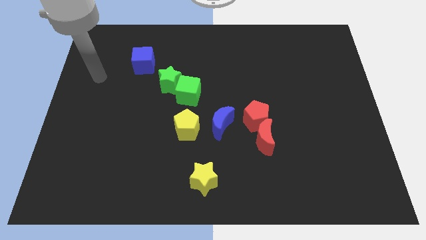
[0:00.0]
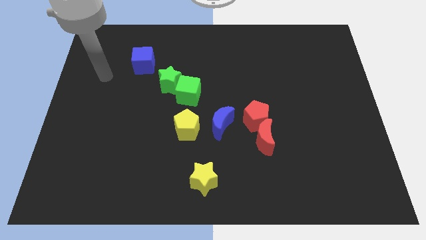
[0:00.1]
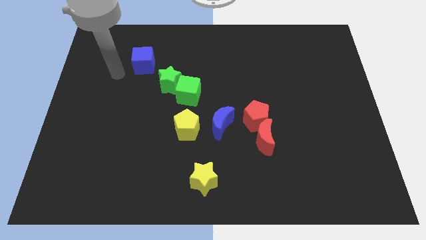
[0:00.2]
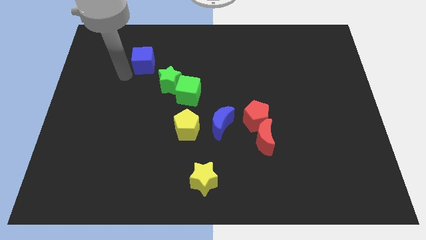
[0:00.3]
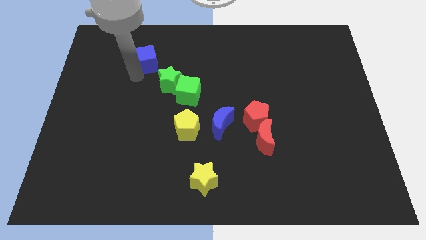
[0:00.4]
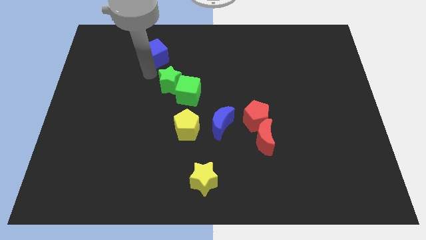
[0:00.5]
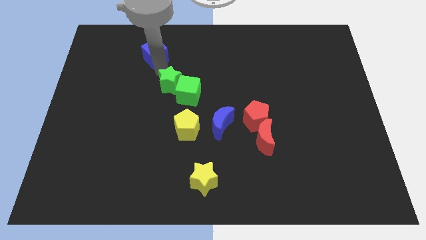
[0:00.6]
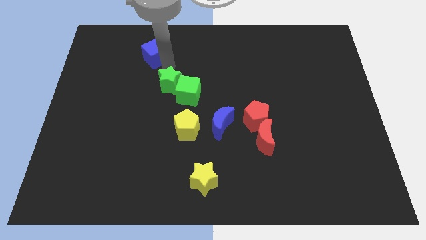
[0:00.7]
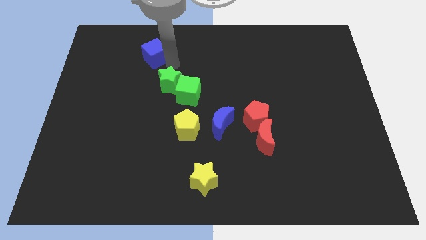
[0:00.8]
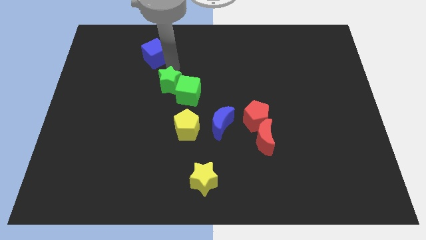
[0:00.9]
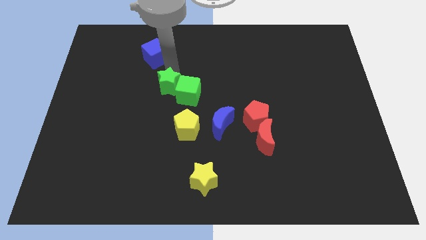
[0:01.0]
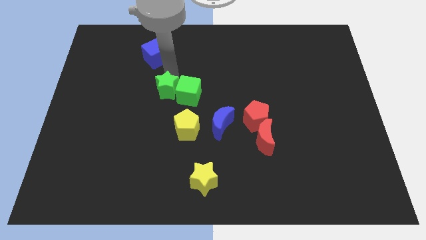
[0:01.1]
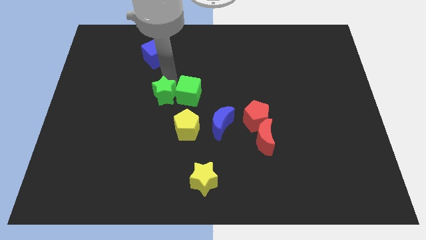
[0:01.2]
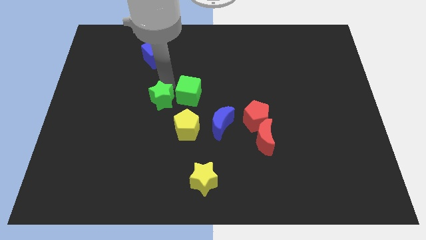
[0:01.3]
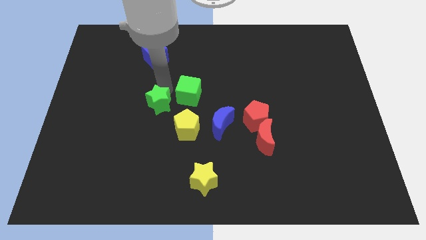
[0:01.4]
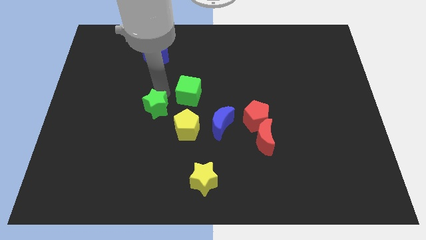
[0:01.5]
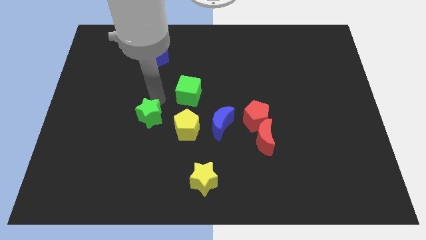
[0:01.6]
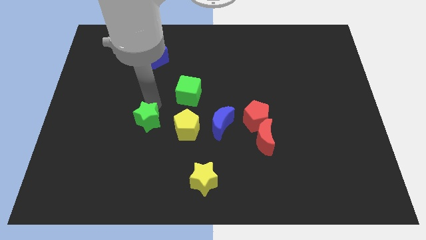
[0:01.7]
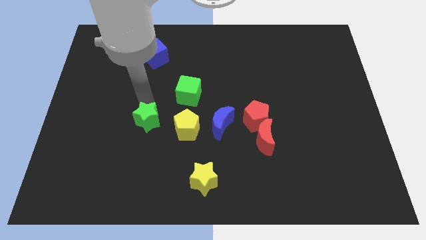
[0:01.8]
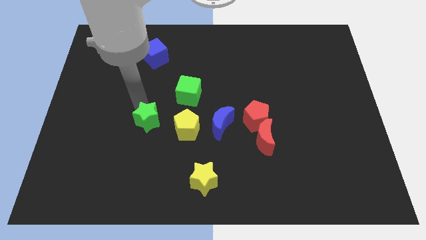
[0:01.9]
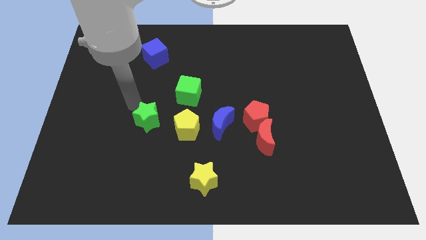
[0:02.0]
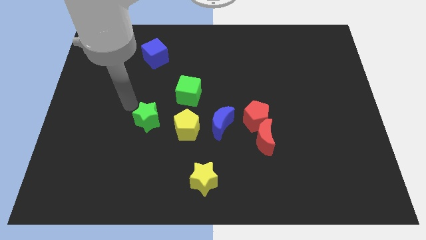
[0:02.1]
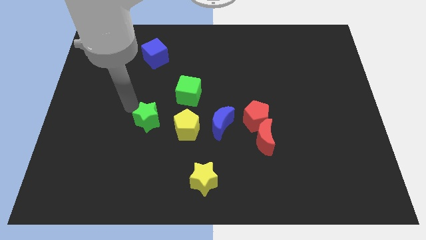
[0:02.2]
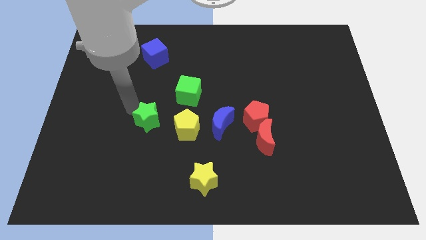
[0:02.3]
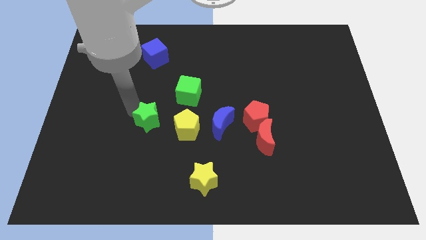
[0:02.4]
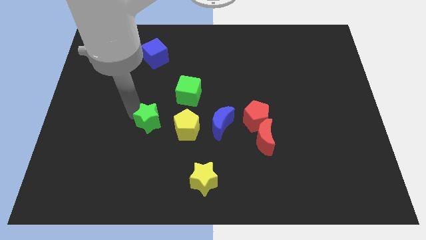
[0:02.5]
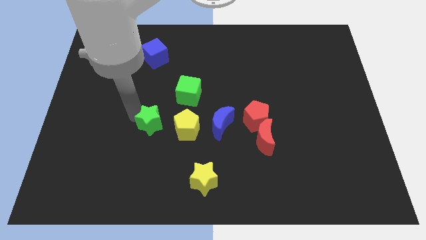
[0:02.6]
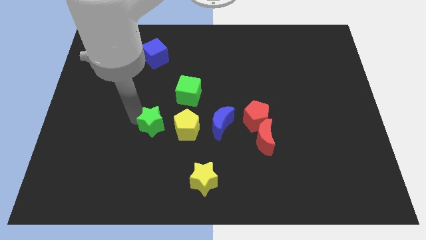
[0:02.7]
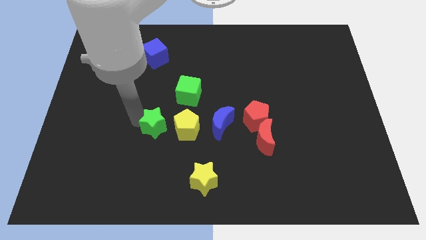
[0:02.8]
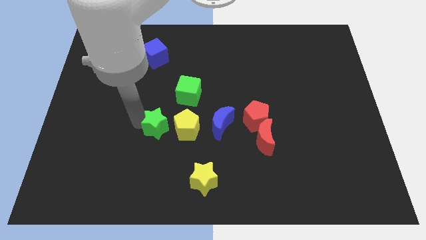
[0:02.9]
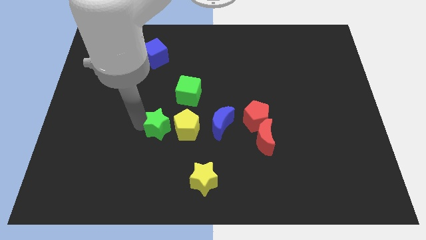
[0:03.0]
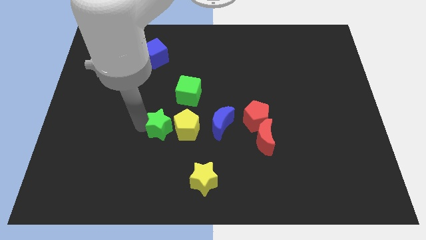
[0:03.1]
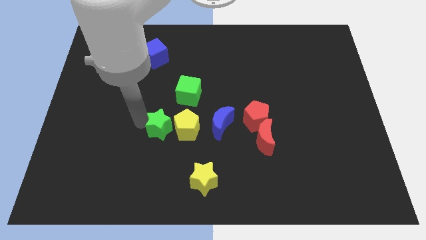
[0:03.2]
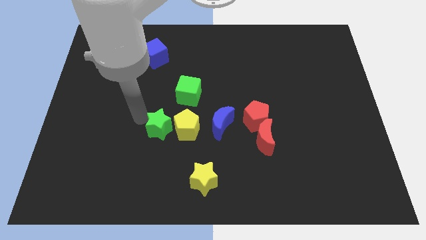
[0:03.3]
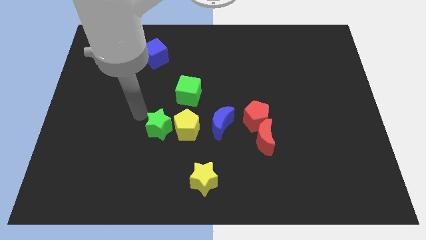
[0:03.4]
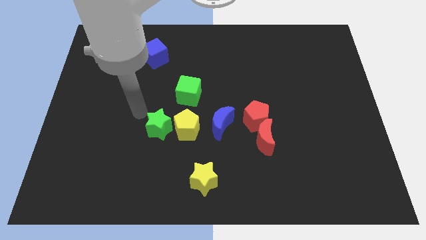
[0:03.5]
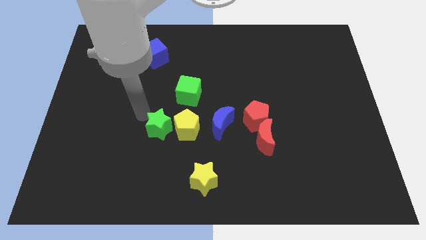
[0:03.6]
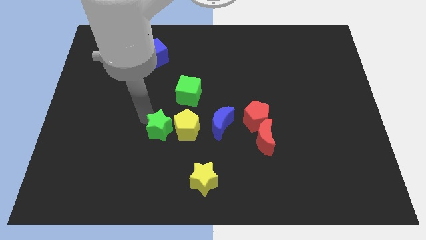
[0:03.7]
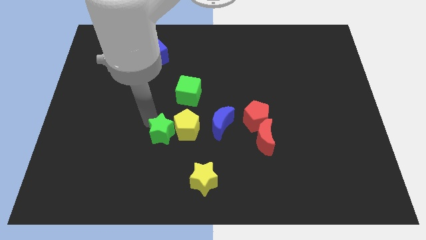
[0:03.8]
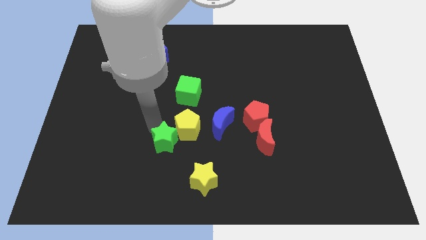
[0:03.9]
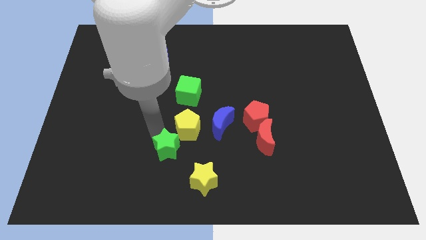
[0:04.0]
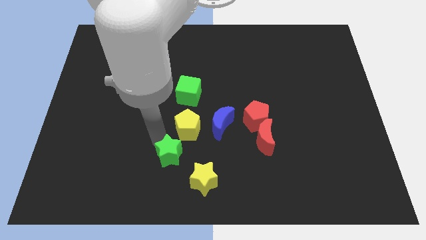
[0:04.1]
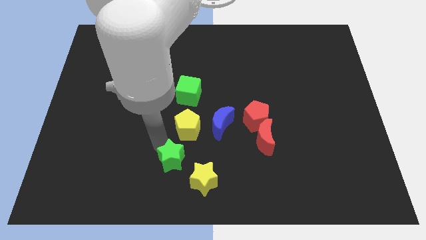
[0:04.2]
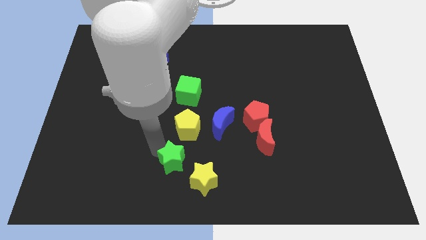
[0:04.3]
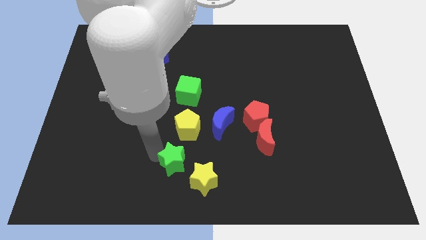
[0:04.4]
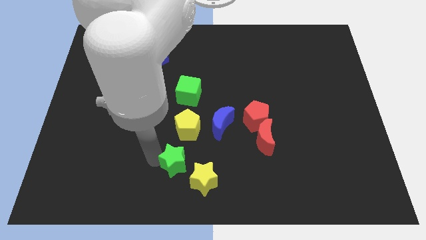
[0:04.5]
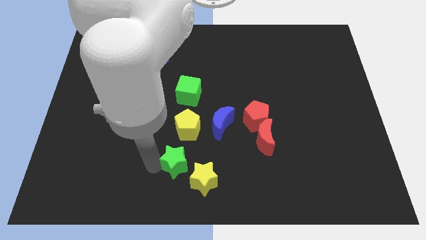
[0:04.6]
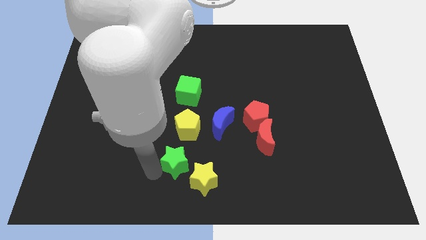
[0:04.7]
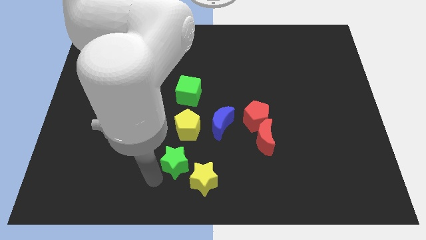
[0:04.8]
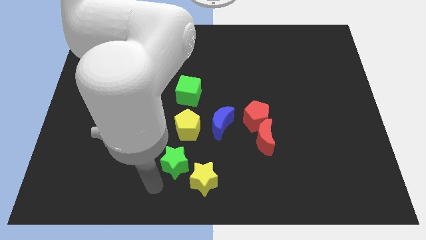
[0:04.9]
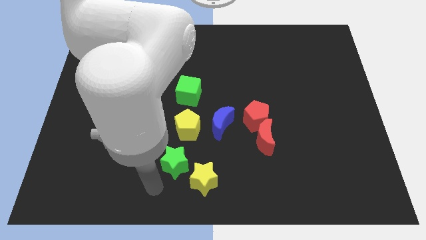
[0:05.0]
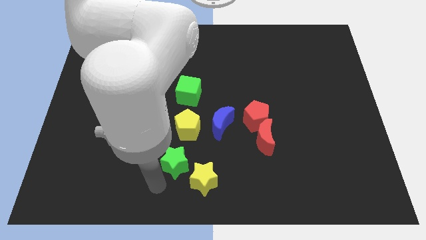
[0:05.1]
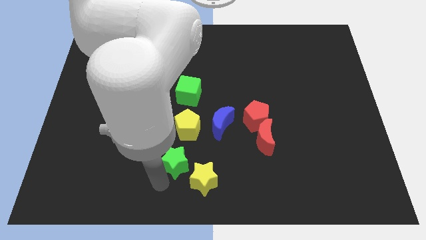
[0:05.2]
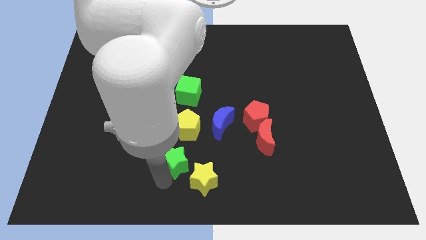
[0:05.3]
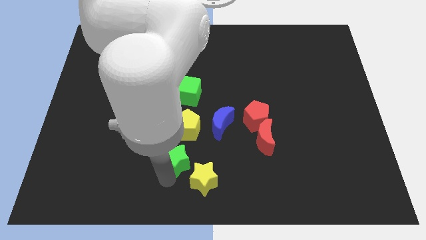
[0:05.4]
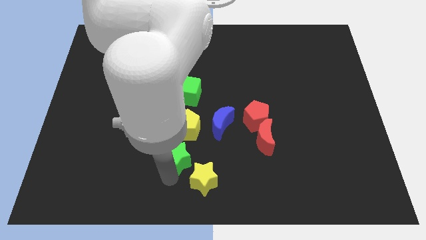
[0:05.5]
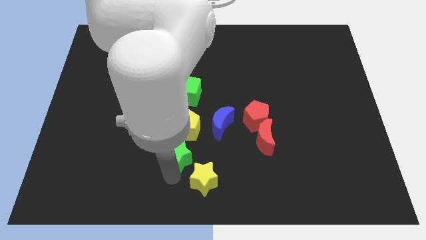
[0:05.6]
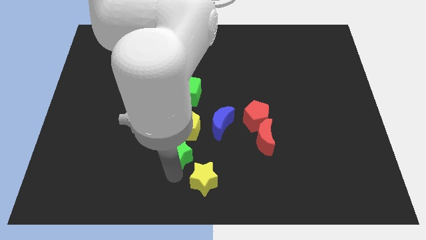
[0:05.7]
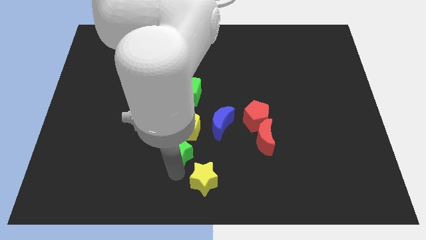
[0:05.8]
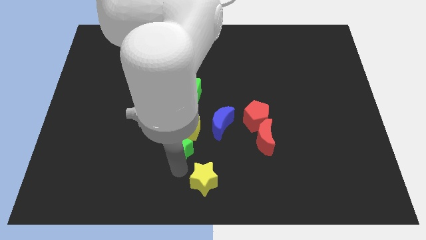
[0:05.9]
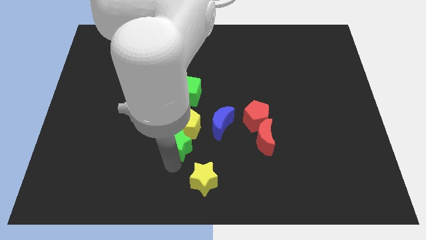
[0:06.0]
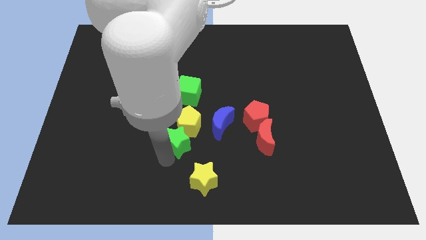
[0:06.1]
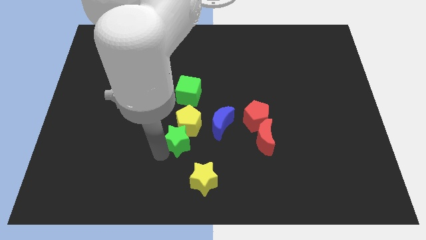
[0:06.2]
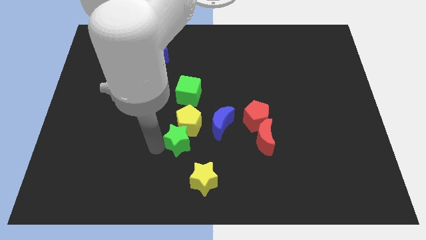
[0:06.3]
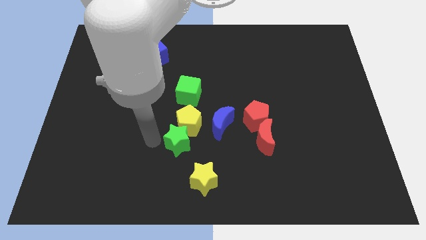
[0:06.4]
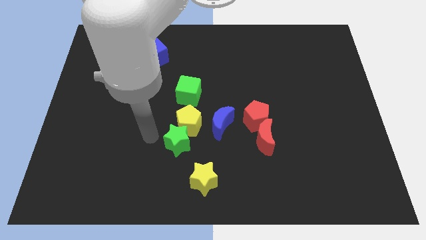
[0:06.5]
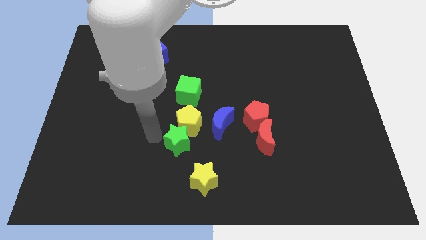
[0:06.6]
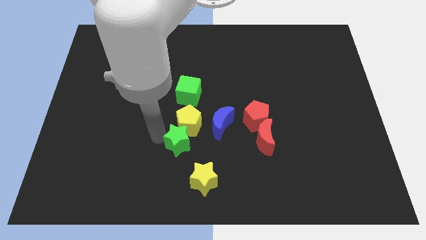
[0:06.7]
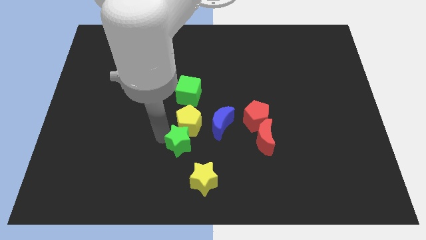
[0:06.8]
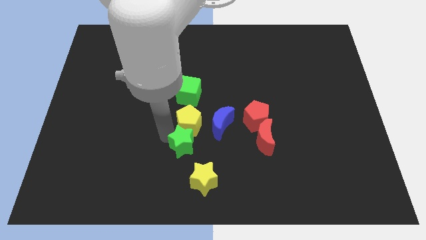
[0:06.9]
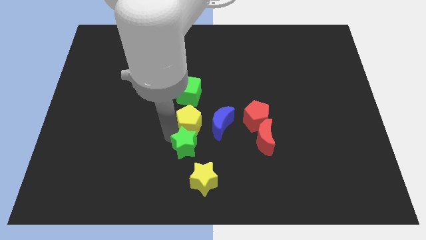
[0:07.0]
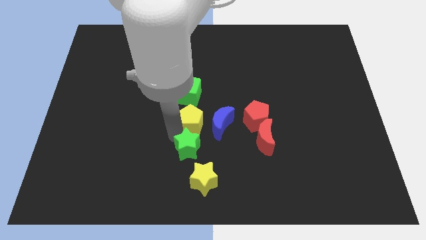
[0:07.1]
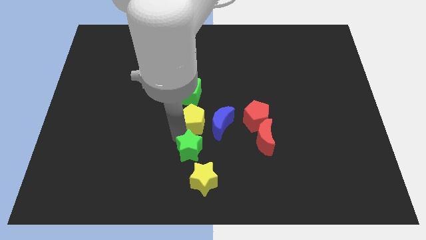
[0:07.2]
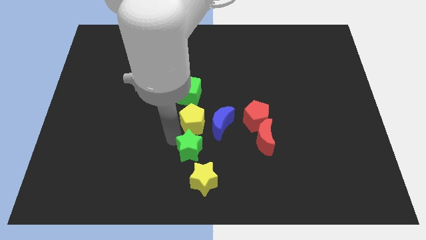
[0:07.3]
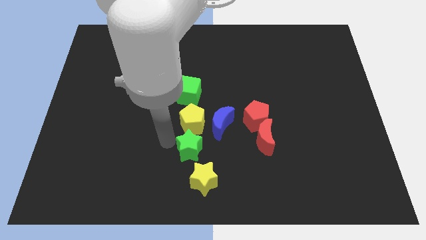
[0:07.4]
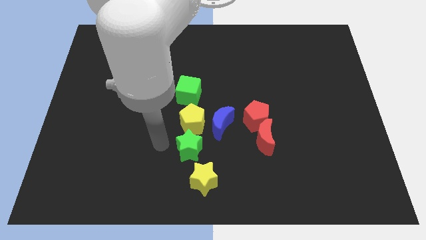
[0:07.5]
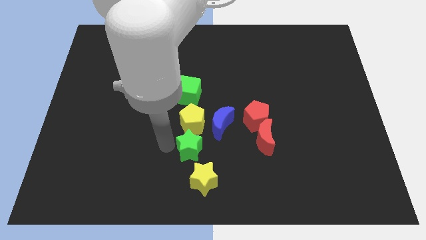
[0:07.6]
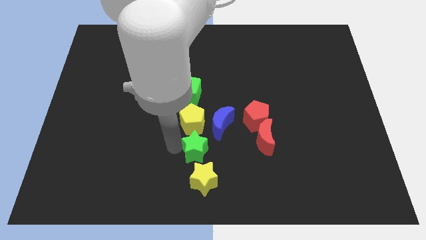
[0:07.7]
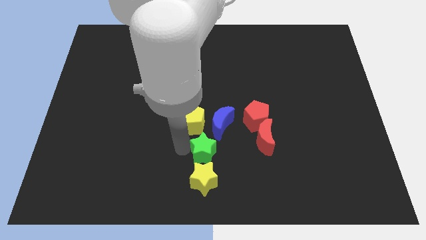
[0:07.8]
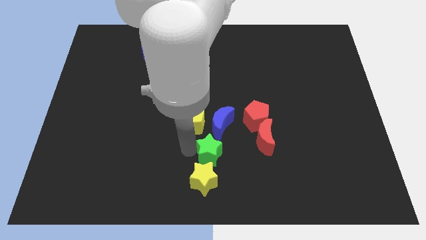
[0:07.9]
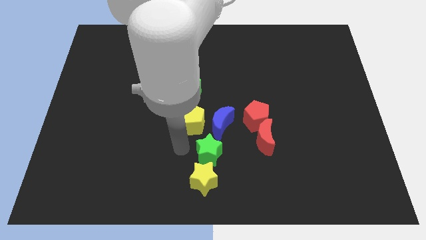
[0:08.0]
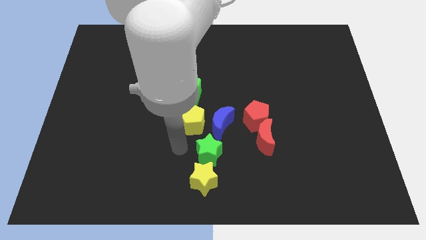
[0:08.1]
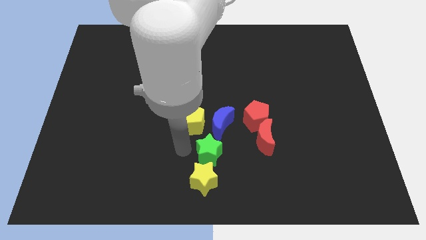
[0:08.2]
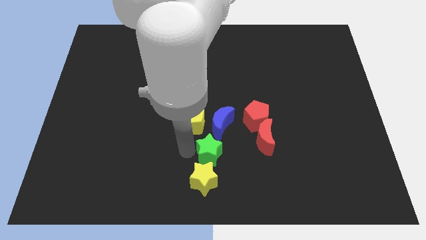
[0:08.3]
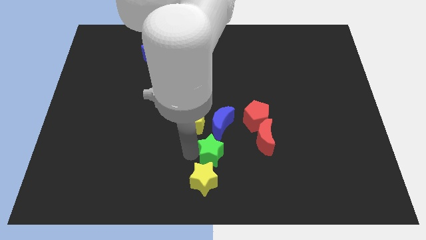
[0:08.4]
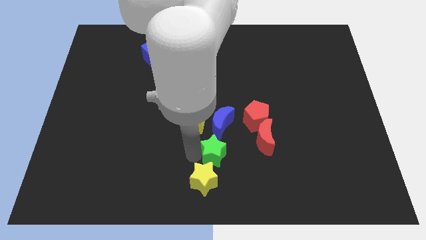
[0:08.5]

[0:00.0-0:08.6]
push the green star downwards and then to the right
